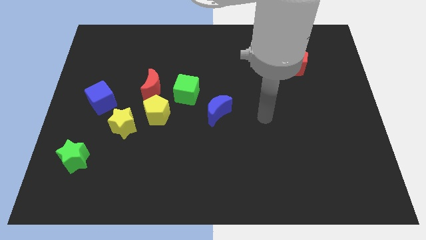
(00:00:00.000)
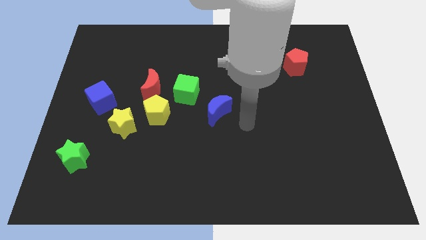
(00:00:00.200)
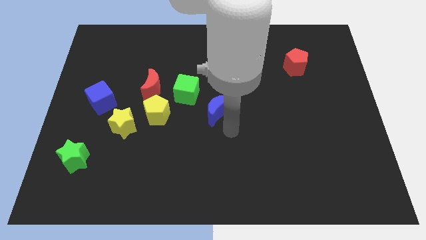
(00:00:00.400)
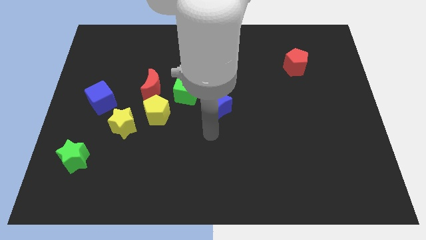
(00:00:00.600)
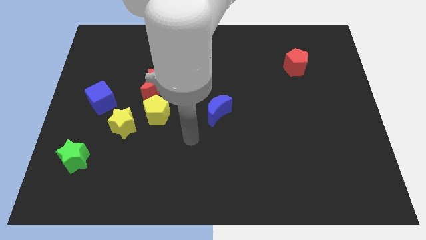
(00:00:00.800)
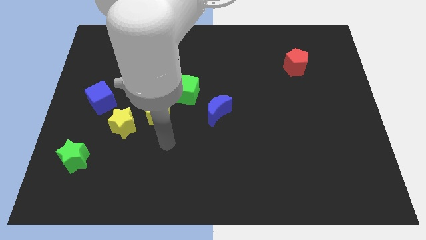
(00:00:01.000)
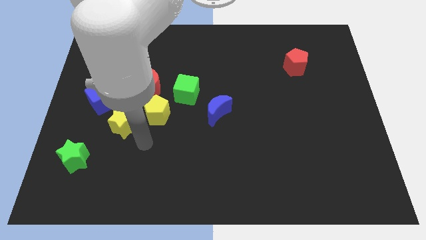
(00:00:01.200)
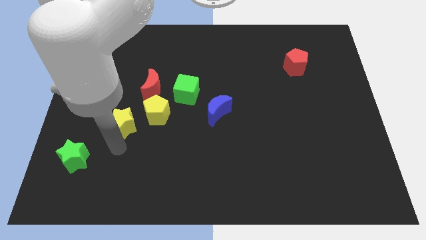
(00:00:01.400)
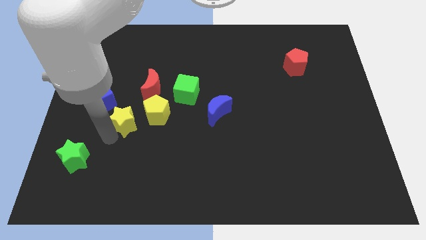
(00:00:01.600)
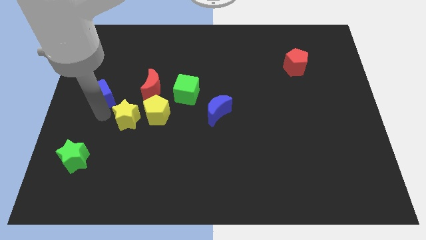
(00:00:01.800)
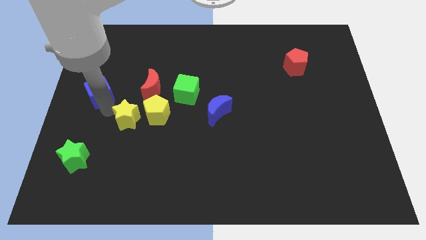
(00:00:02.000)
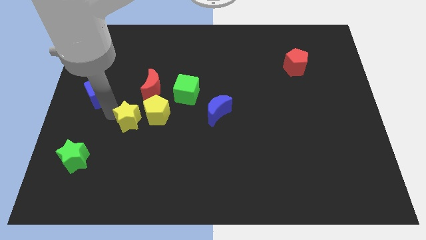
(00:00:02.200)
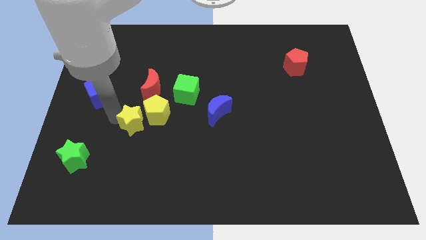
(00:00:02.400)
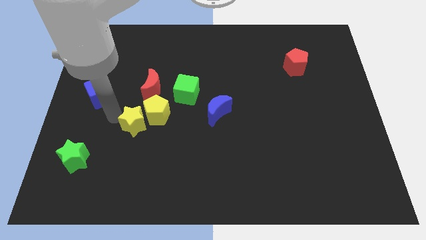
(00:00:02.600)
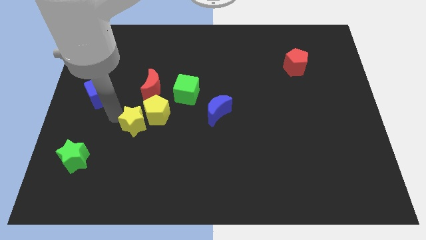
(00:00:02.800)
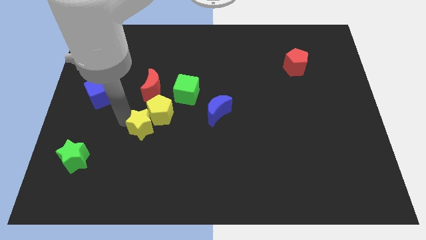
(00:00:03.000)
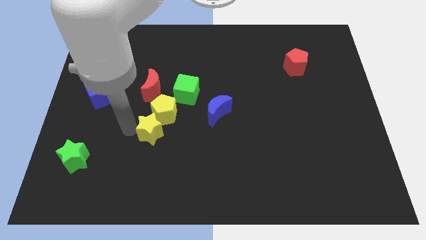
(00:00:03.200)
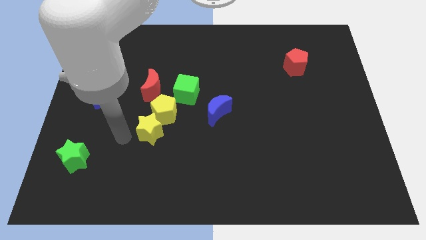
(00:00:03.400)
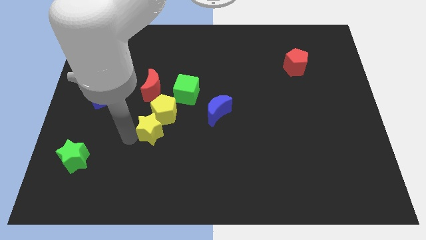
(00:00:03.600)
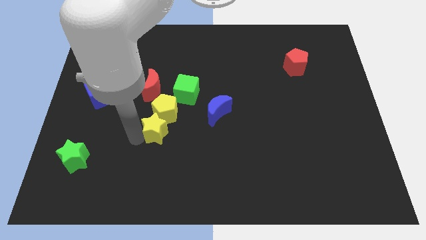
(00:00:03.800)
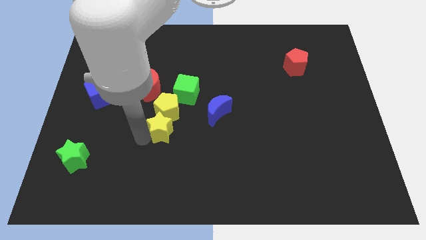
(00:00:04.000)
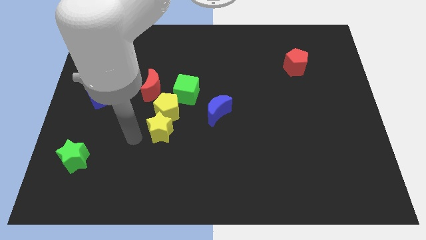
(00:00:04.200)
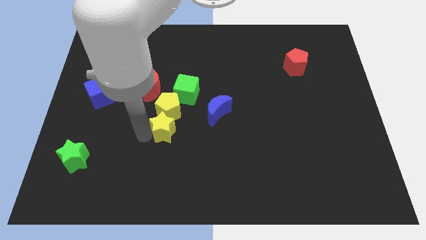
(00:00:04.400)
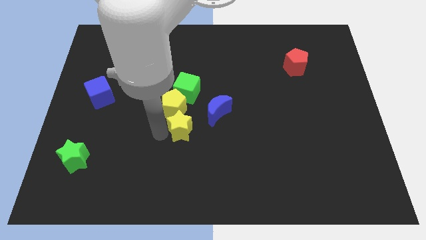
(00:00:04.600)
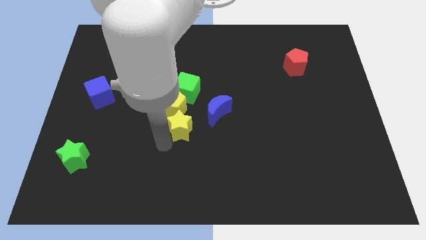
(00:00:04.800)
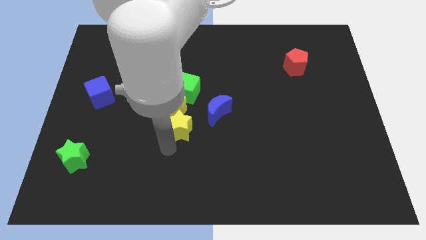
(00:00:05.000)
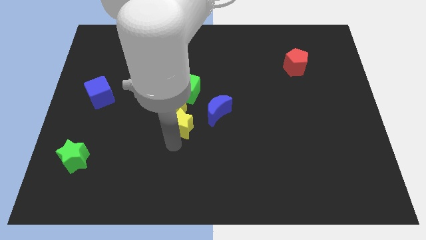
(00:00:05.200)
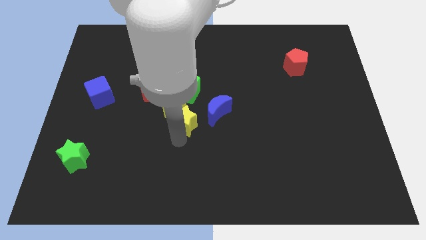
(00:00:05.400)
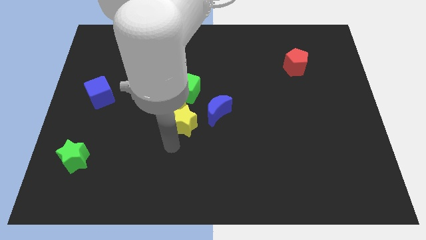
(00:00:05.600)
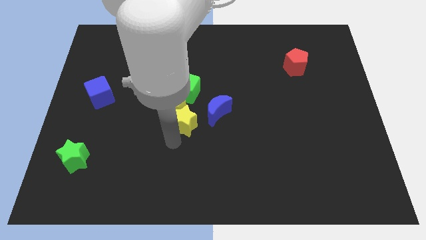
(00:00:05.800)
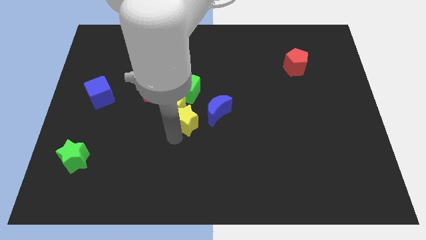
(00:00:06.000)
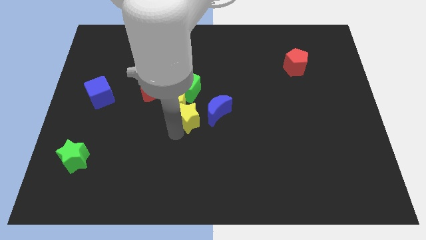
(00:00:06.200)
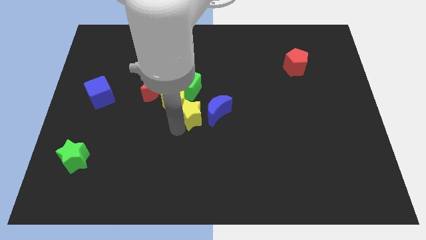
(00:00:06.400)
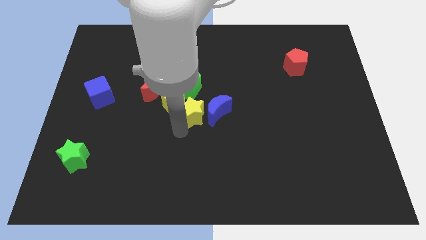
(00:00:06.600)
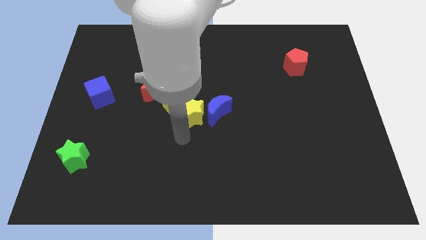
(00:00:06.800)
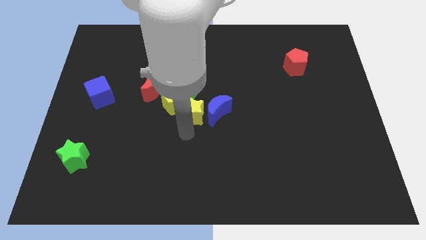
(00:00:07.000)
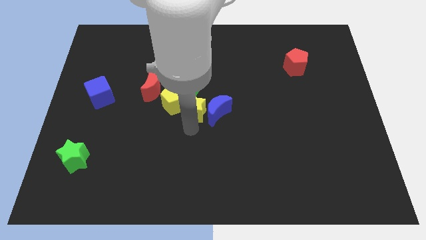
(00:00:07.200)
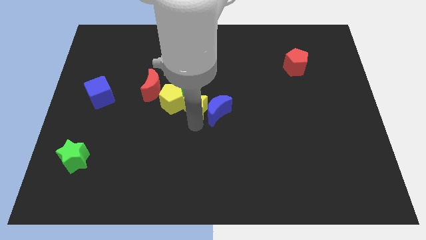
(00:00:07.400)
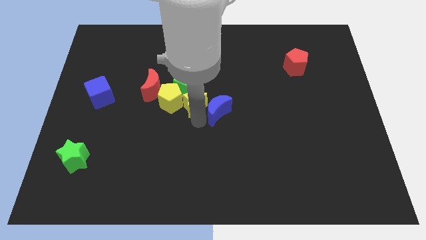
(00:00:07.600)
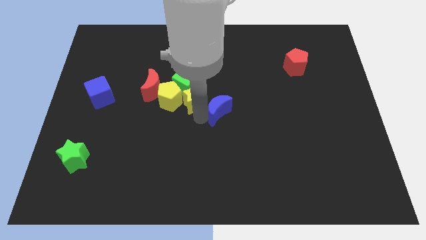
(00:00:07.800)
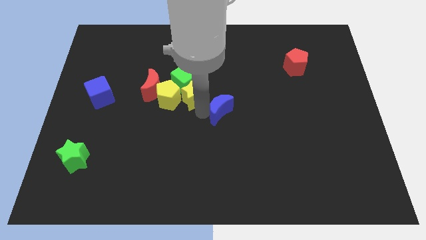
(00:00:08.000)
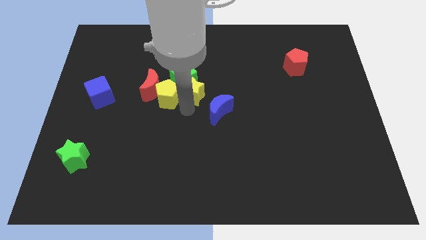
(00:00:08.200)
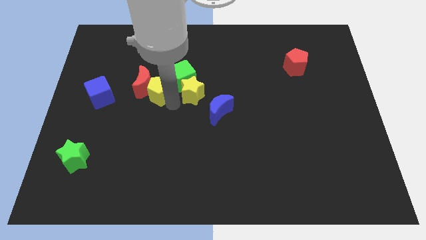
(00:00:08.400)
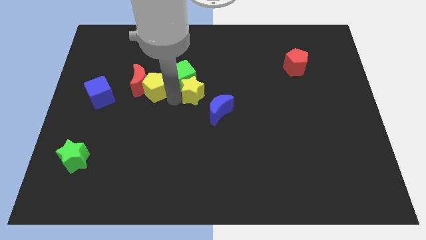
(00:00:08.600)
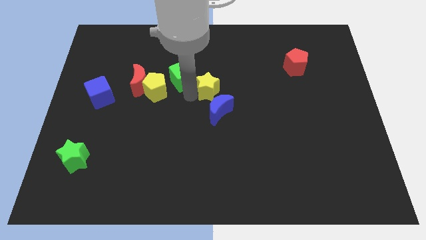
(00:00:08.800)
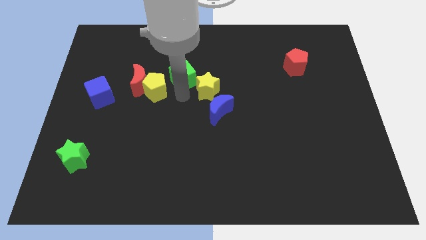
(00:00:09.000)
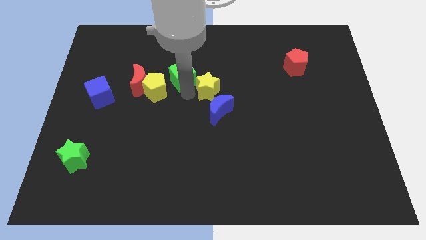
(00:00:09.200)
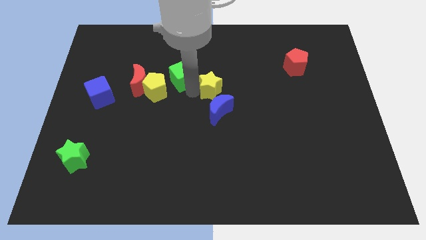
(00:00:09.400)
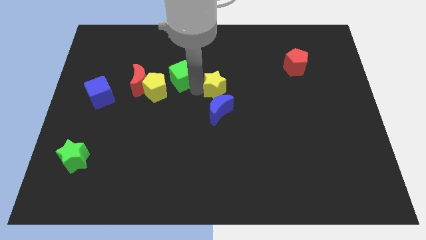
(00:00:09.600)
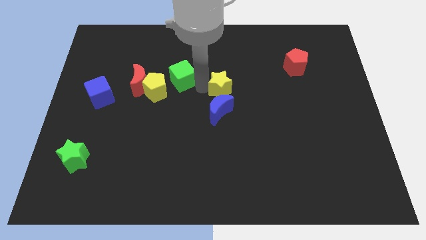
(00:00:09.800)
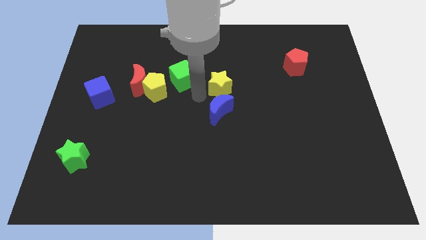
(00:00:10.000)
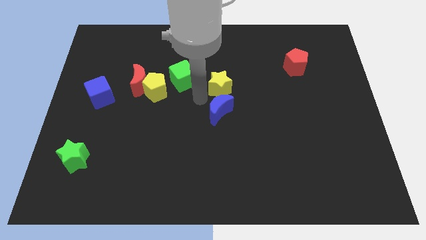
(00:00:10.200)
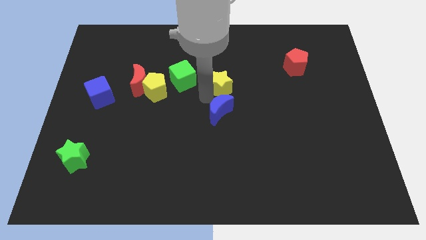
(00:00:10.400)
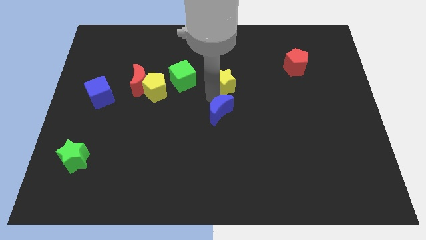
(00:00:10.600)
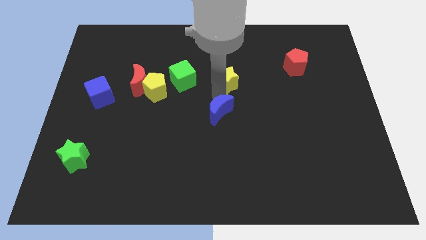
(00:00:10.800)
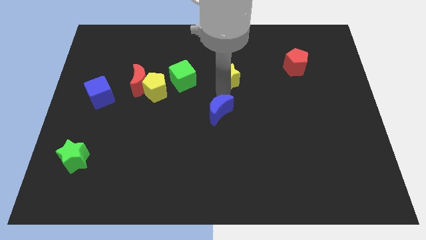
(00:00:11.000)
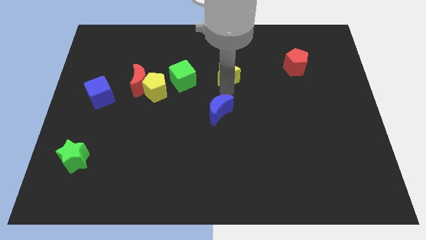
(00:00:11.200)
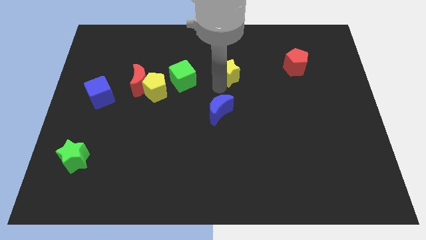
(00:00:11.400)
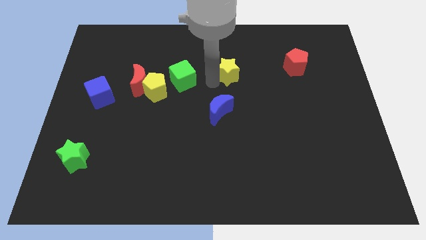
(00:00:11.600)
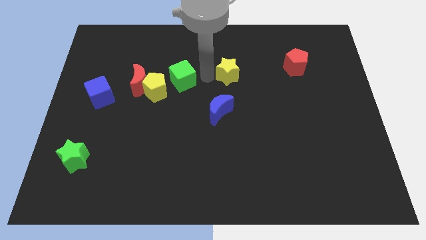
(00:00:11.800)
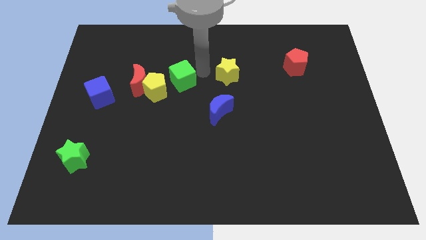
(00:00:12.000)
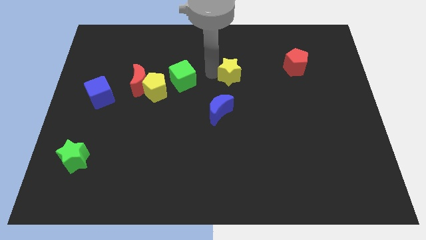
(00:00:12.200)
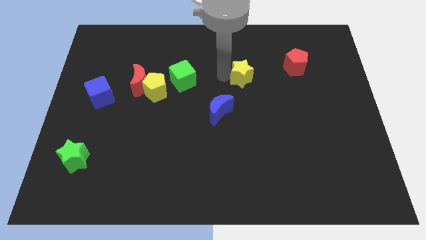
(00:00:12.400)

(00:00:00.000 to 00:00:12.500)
push the yellow star just left of the red pentagon

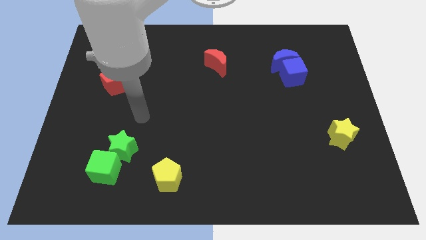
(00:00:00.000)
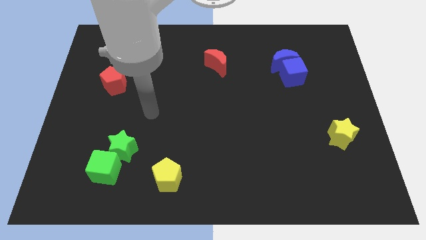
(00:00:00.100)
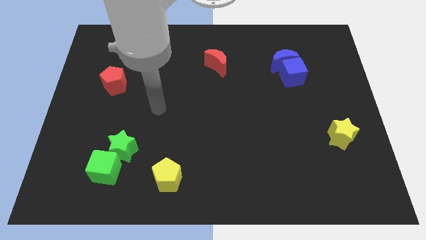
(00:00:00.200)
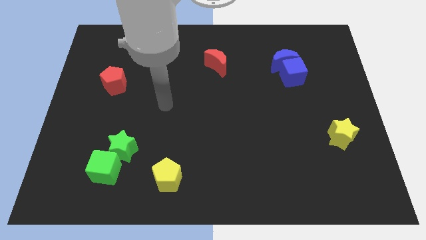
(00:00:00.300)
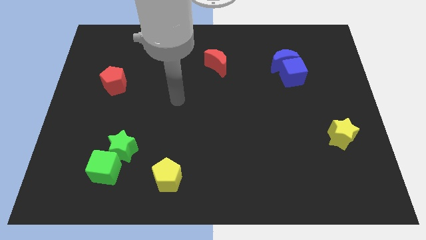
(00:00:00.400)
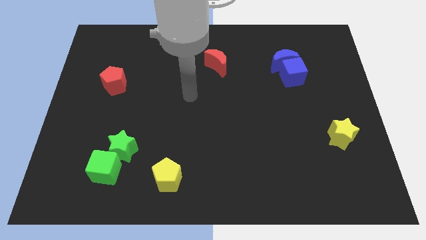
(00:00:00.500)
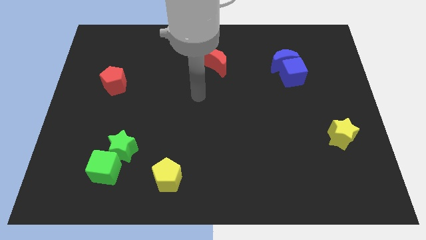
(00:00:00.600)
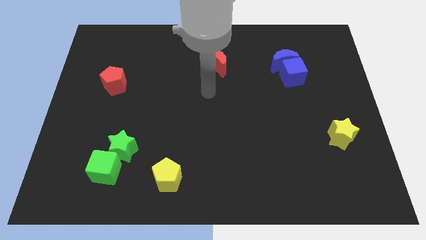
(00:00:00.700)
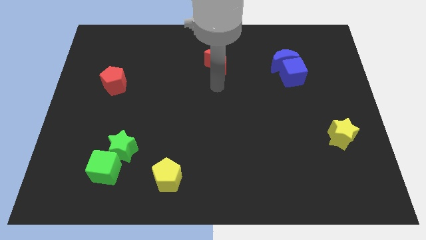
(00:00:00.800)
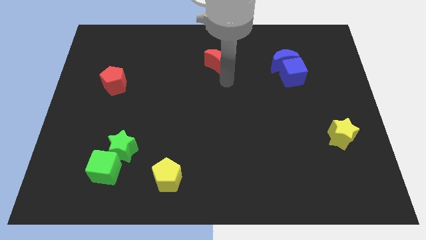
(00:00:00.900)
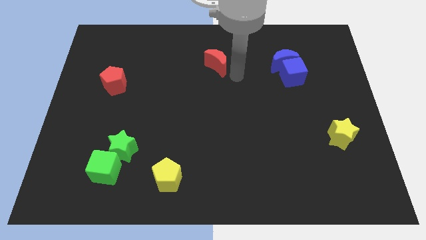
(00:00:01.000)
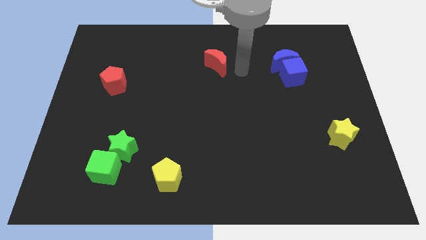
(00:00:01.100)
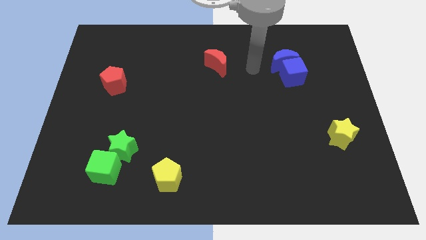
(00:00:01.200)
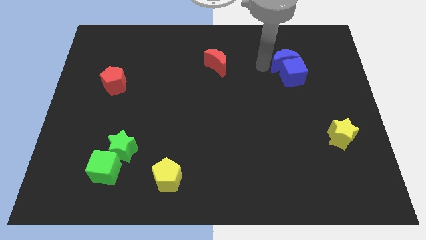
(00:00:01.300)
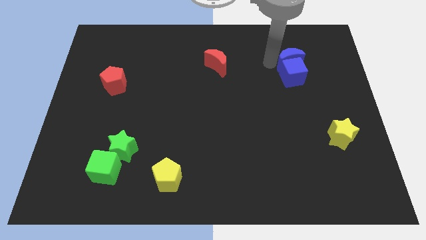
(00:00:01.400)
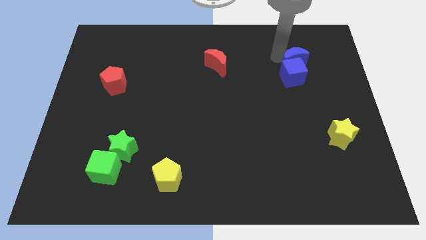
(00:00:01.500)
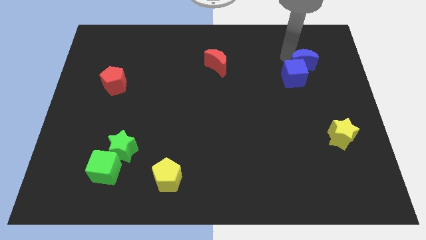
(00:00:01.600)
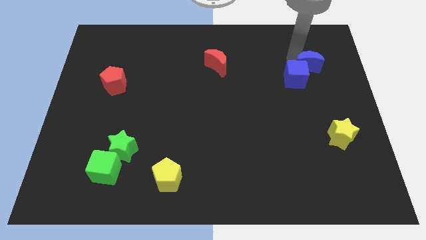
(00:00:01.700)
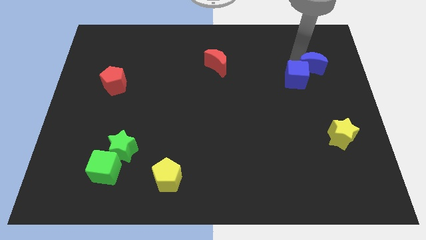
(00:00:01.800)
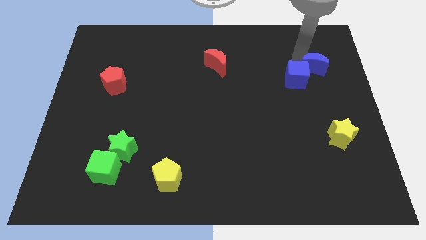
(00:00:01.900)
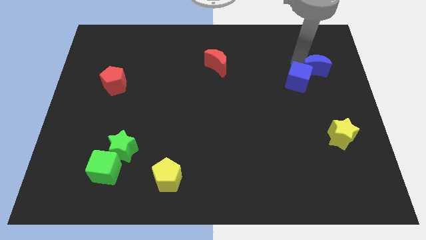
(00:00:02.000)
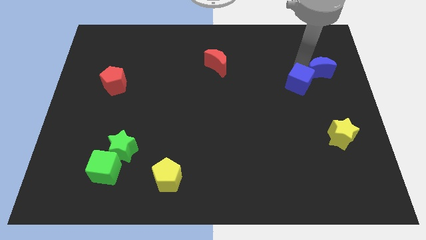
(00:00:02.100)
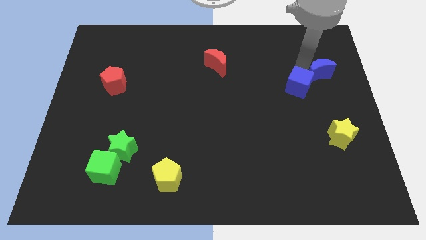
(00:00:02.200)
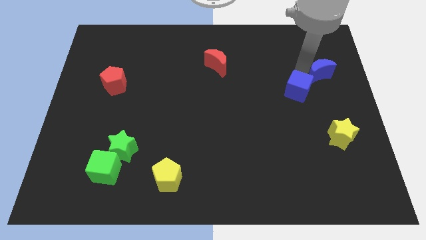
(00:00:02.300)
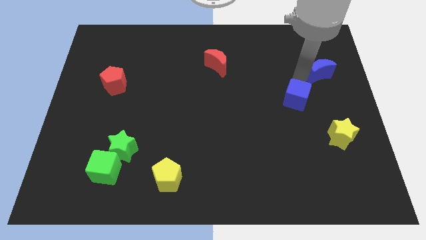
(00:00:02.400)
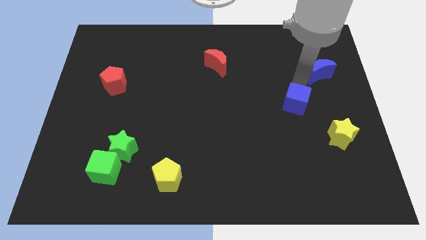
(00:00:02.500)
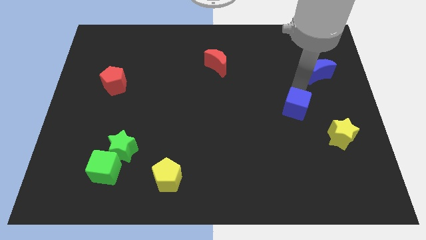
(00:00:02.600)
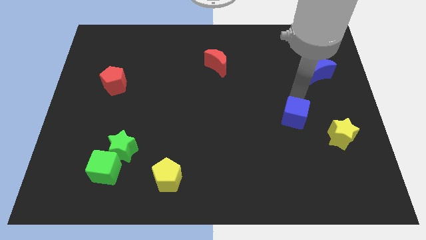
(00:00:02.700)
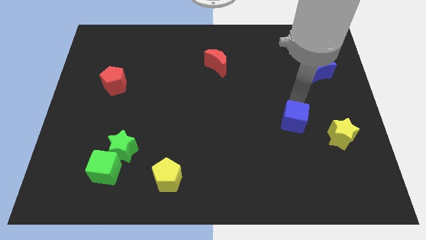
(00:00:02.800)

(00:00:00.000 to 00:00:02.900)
put the blue cube just left of the yellow star
